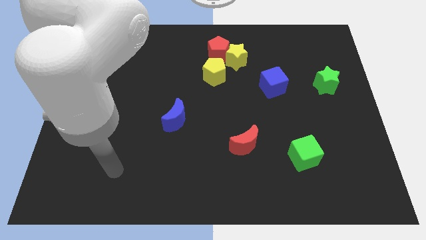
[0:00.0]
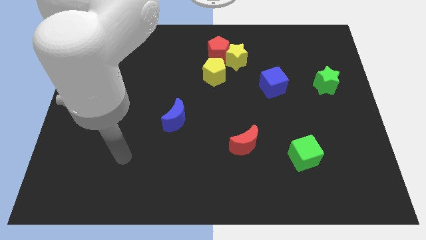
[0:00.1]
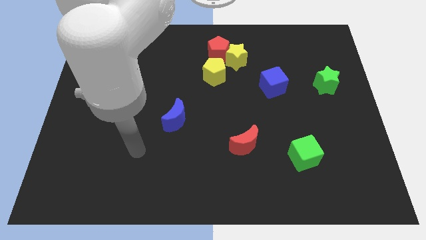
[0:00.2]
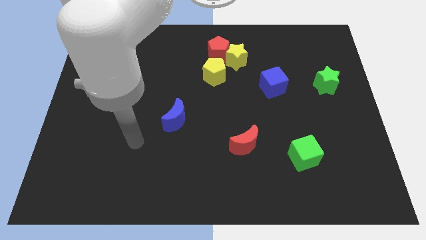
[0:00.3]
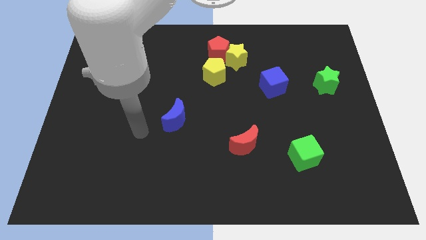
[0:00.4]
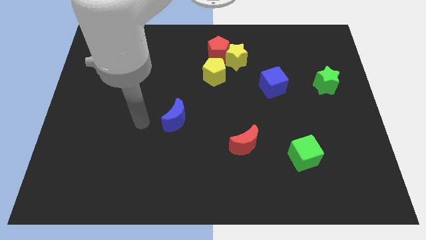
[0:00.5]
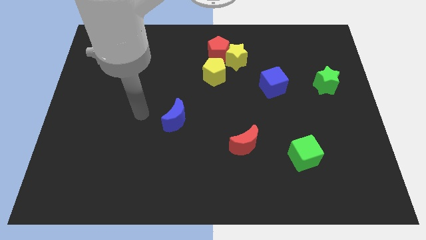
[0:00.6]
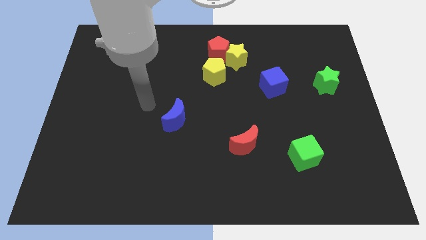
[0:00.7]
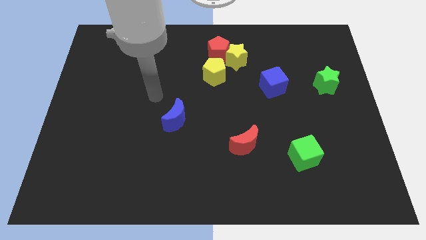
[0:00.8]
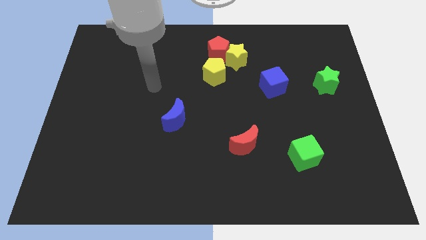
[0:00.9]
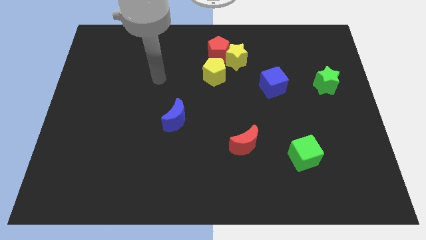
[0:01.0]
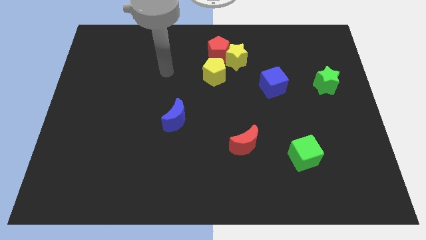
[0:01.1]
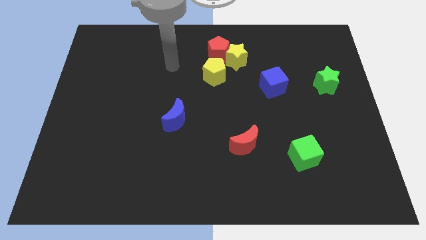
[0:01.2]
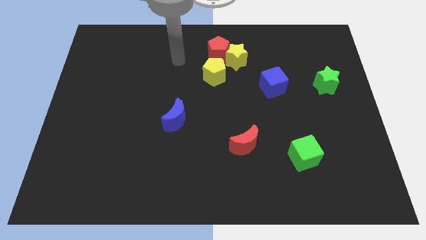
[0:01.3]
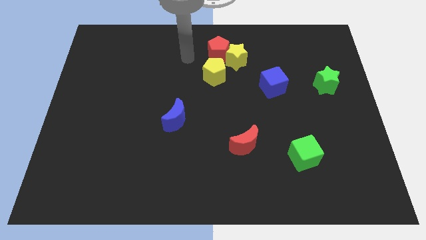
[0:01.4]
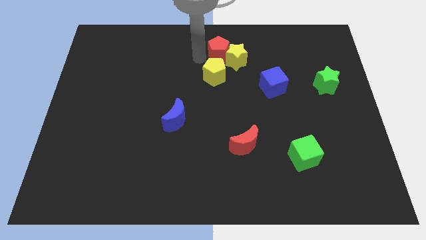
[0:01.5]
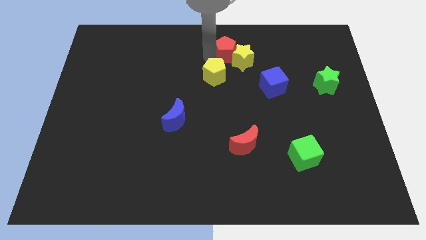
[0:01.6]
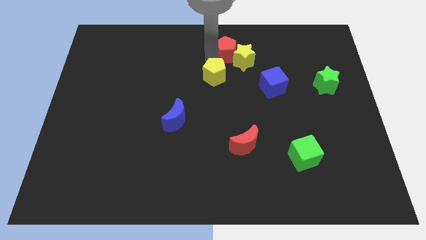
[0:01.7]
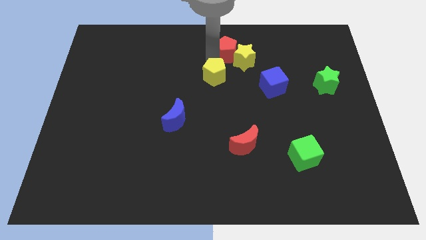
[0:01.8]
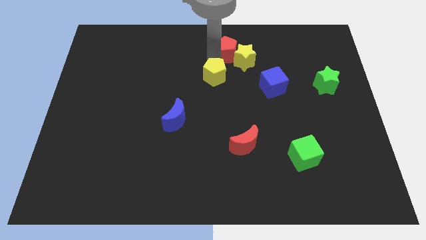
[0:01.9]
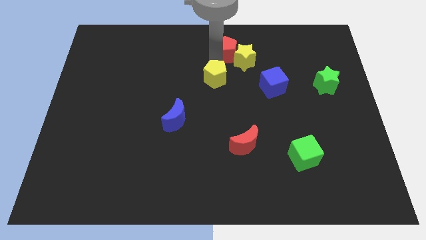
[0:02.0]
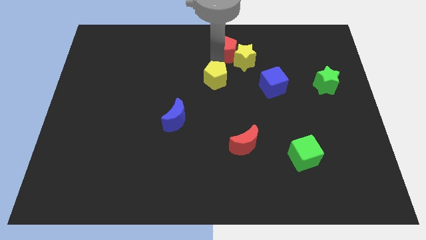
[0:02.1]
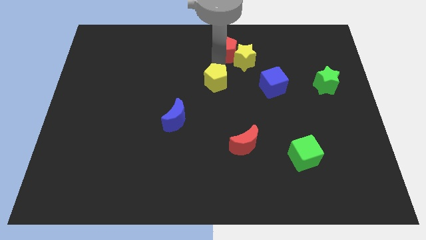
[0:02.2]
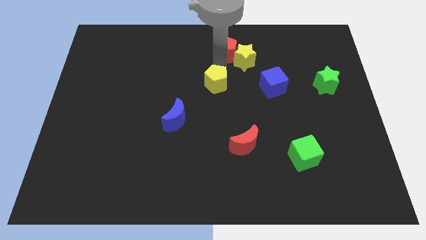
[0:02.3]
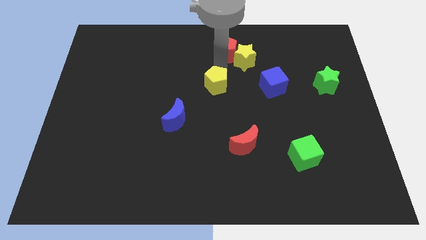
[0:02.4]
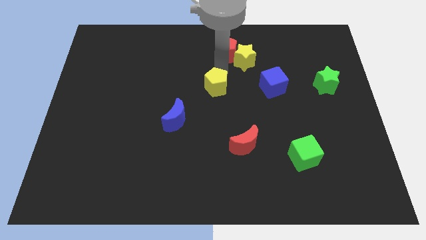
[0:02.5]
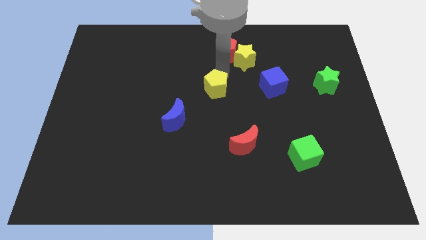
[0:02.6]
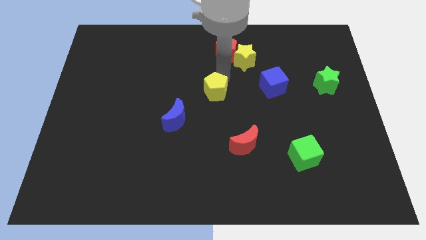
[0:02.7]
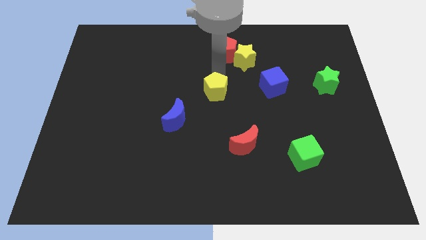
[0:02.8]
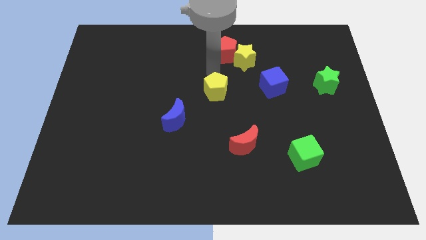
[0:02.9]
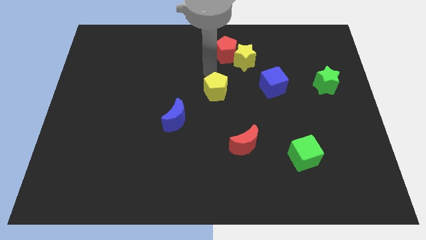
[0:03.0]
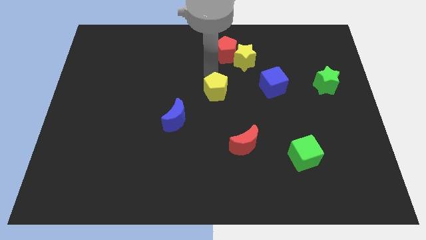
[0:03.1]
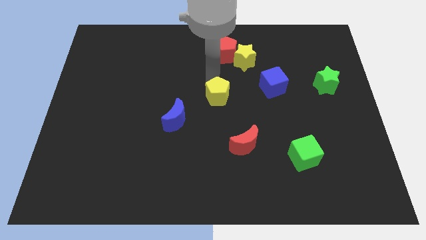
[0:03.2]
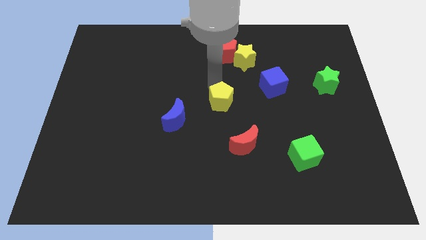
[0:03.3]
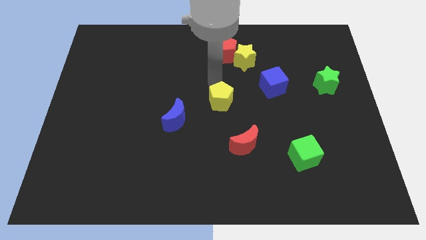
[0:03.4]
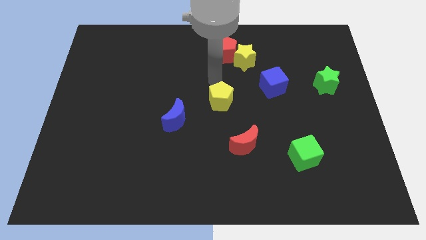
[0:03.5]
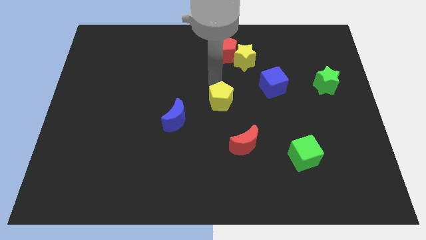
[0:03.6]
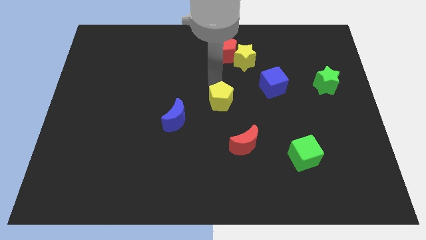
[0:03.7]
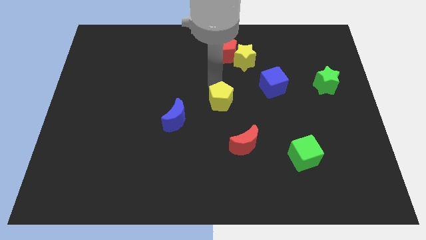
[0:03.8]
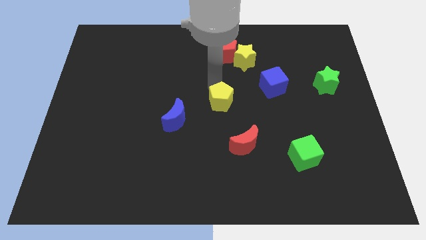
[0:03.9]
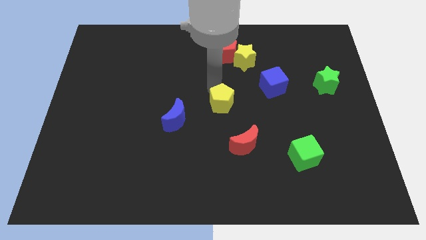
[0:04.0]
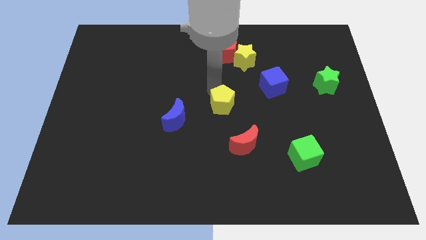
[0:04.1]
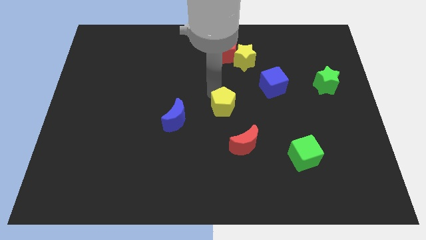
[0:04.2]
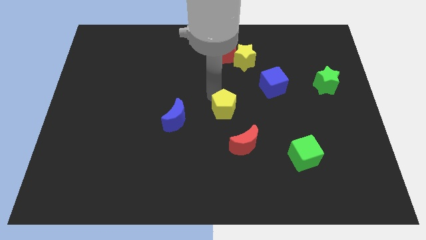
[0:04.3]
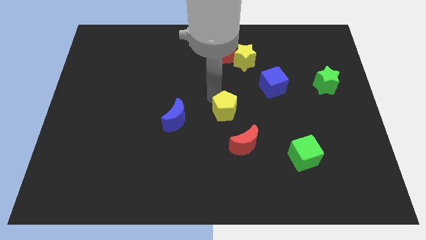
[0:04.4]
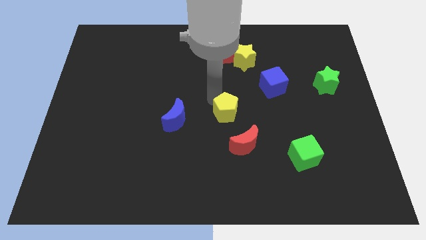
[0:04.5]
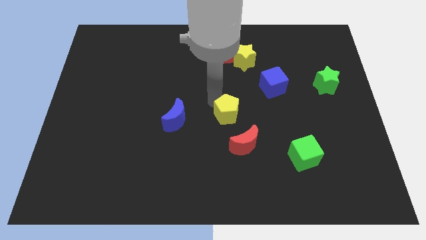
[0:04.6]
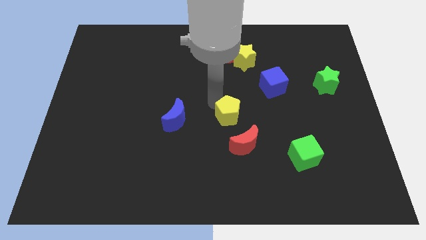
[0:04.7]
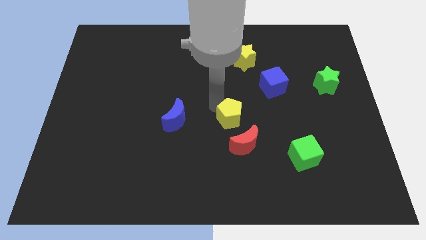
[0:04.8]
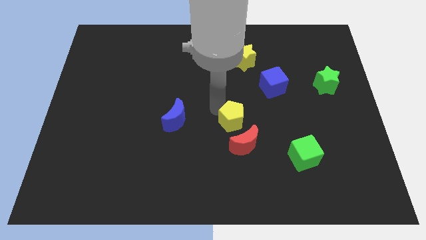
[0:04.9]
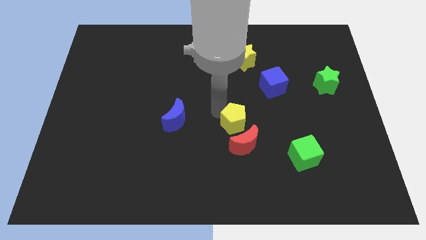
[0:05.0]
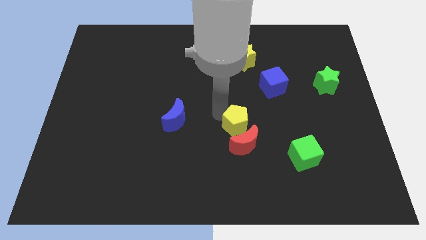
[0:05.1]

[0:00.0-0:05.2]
push the yellow pentagon towards the red moon

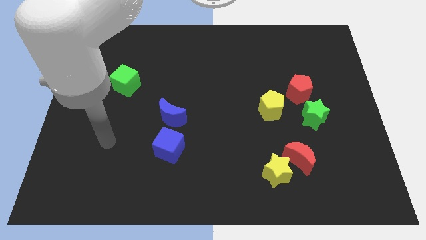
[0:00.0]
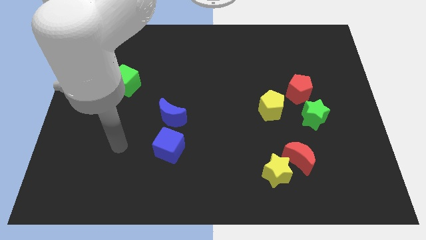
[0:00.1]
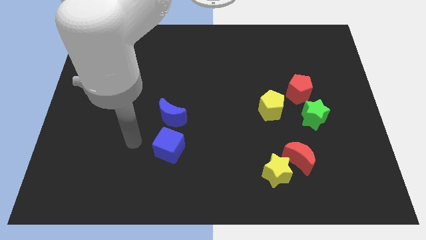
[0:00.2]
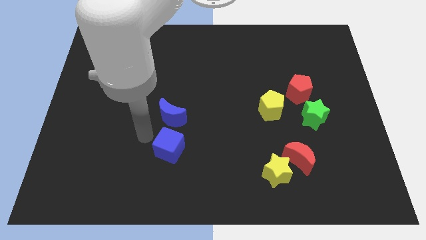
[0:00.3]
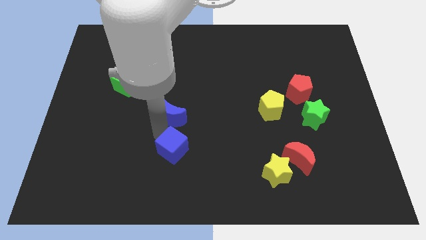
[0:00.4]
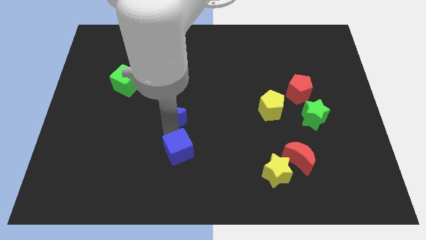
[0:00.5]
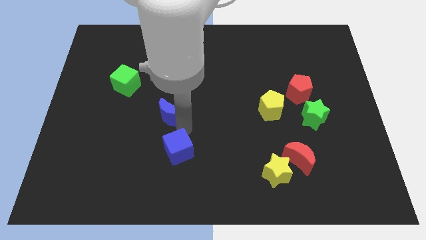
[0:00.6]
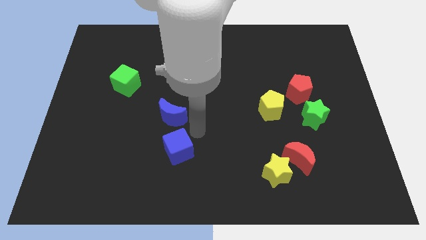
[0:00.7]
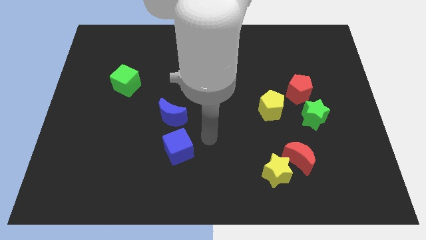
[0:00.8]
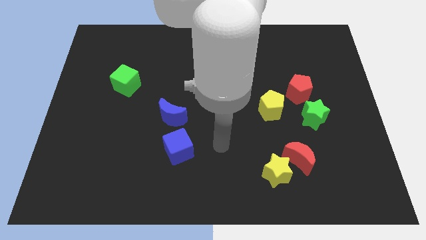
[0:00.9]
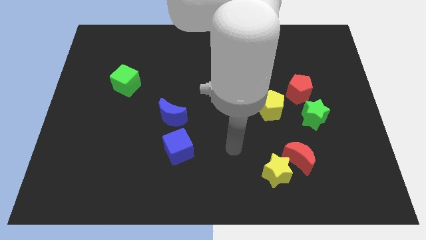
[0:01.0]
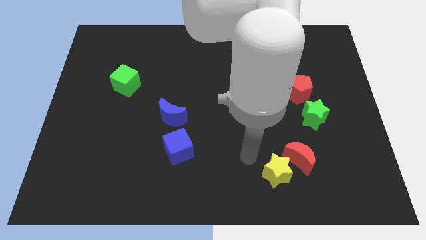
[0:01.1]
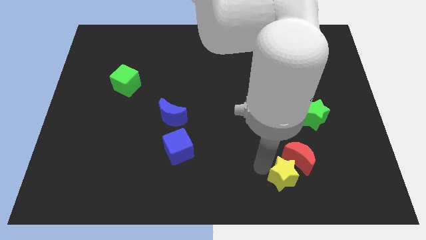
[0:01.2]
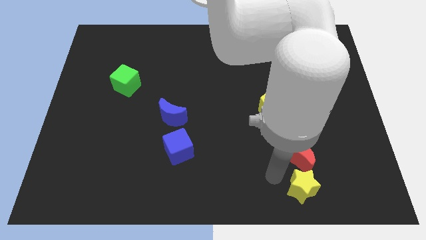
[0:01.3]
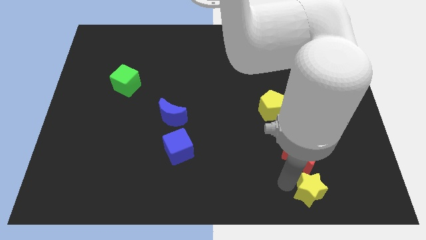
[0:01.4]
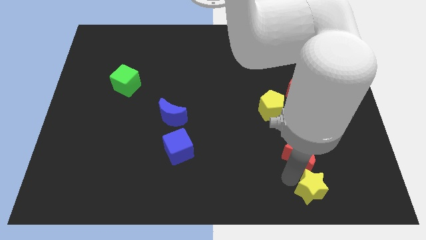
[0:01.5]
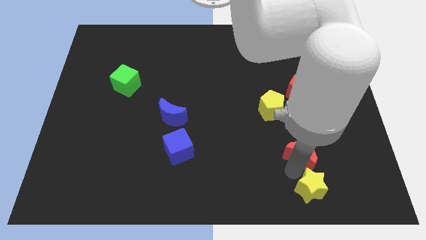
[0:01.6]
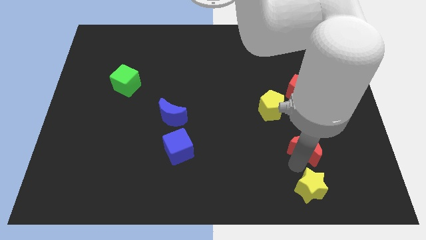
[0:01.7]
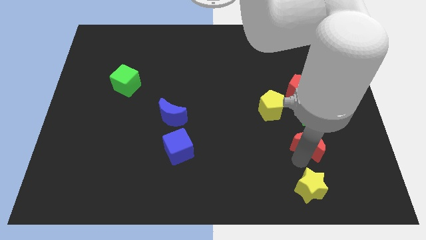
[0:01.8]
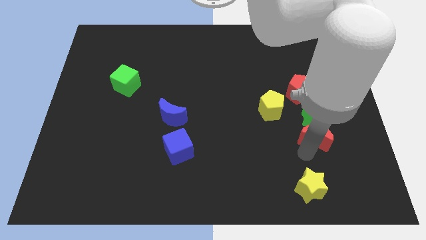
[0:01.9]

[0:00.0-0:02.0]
move the red moon next to the green star
